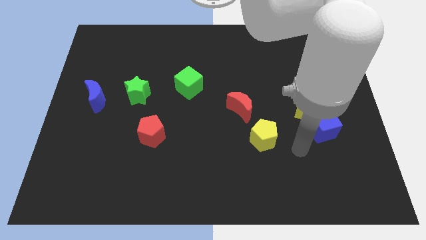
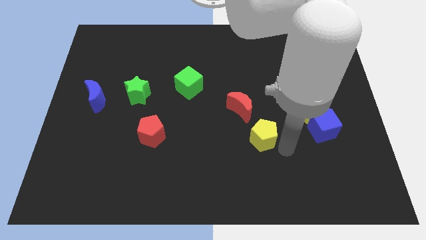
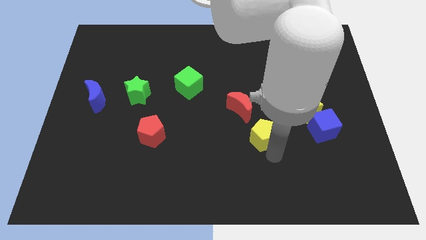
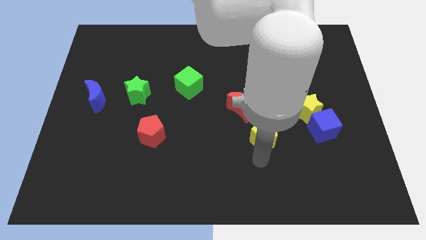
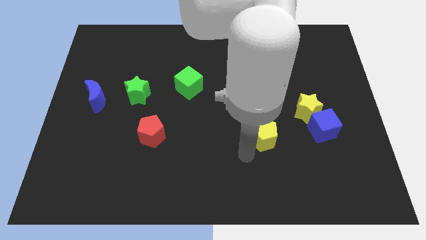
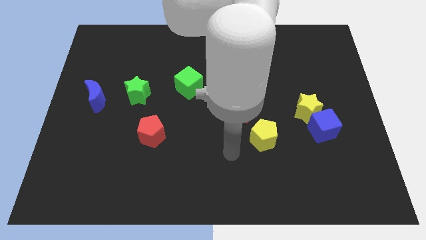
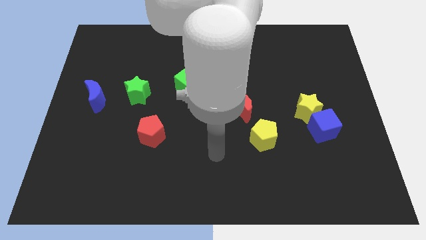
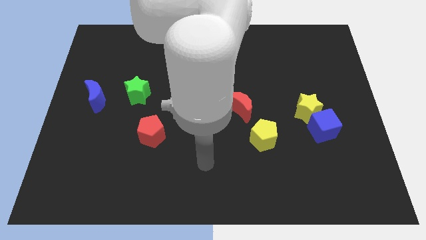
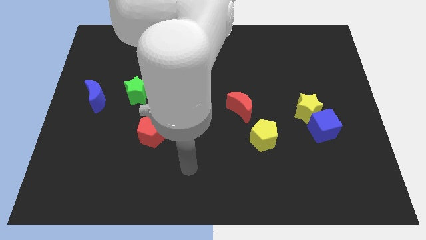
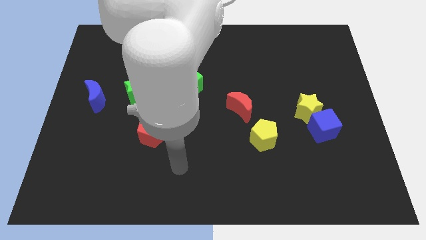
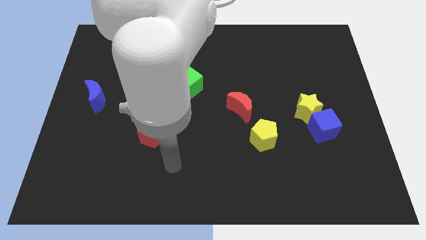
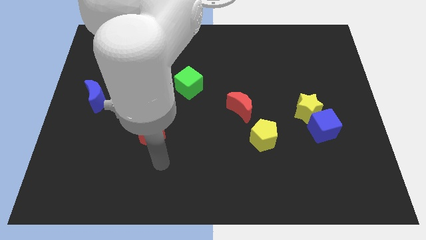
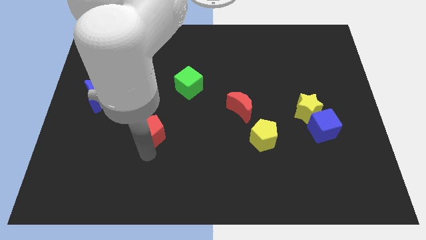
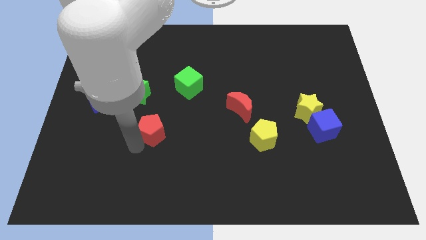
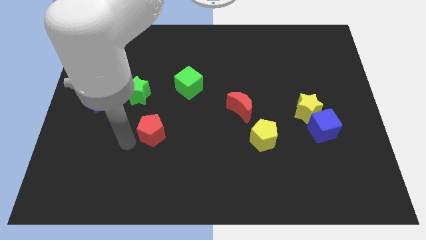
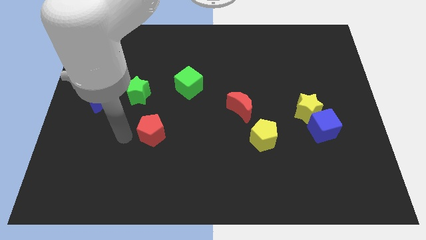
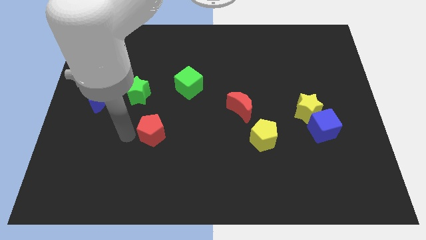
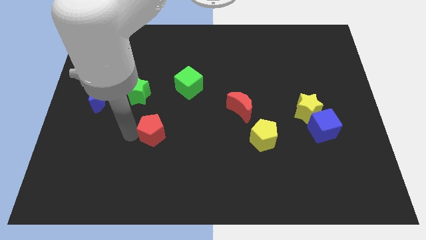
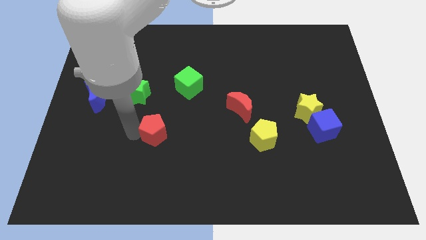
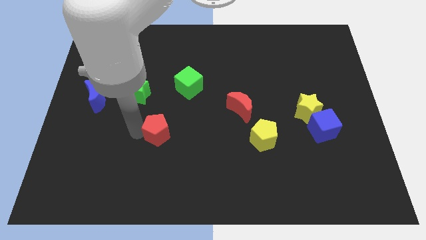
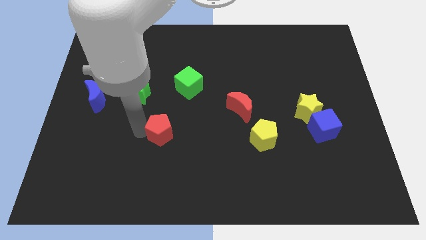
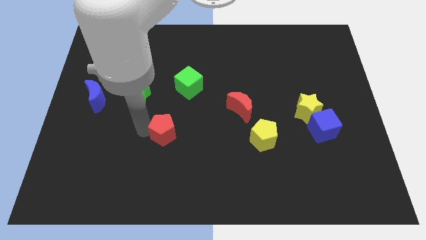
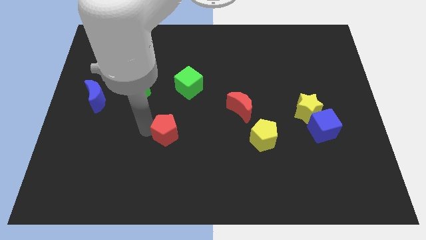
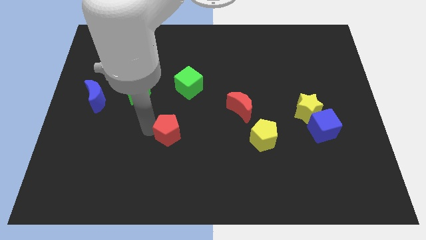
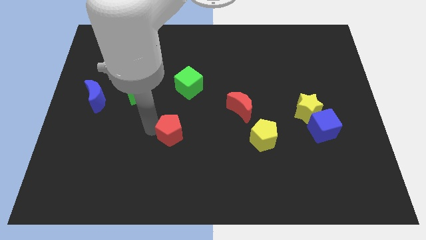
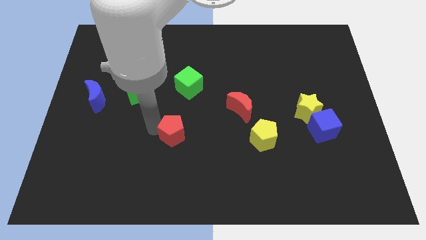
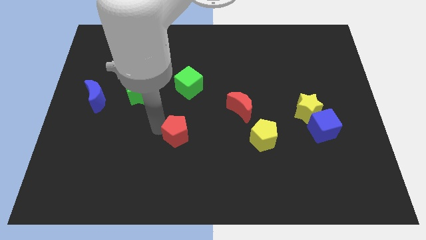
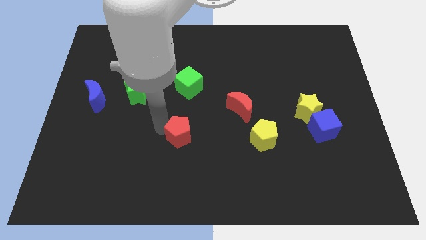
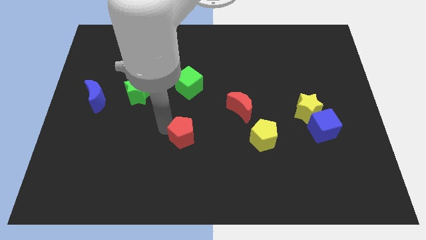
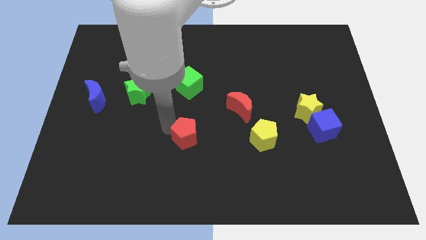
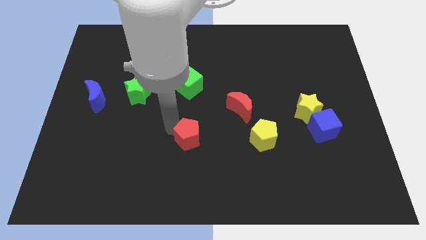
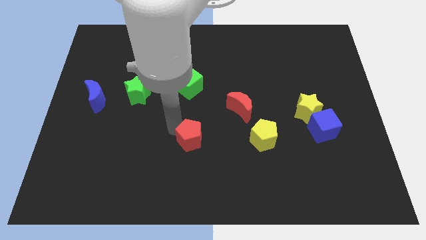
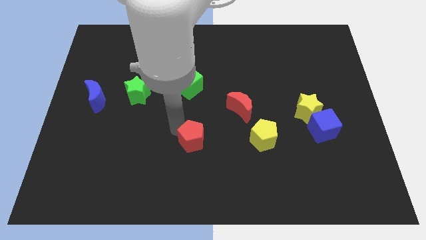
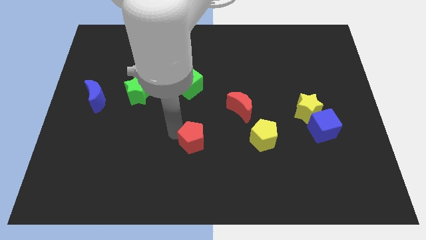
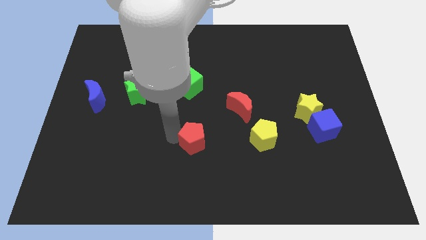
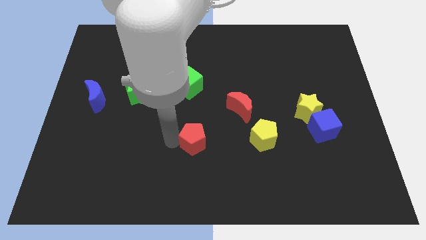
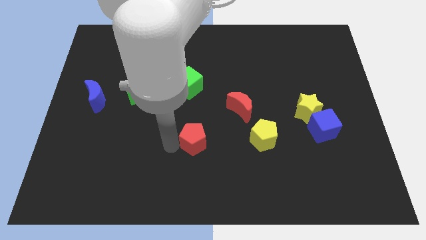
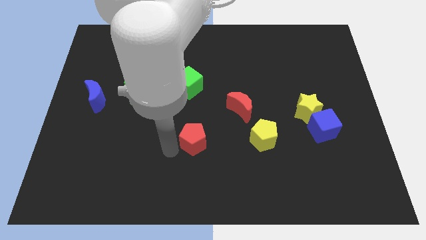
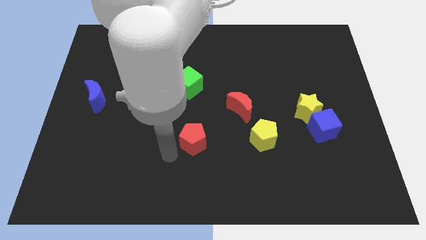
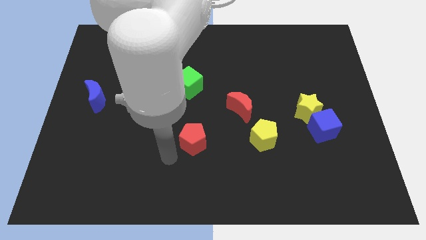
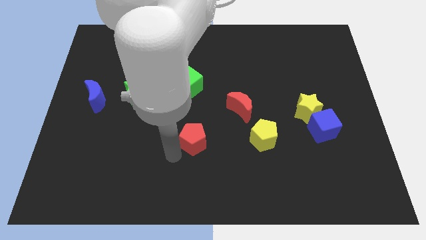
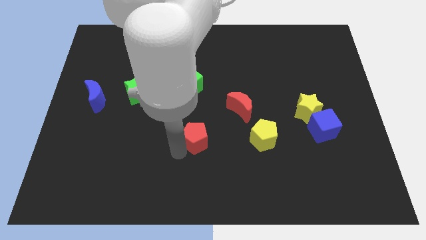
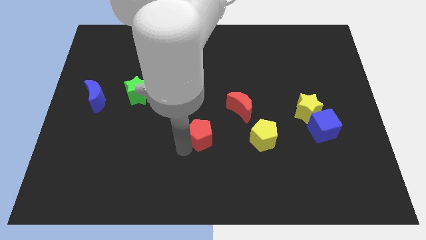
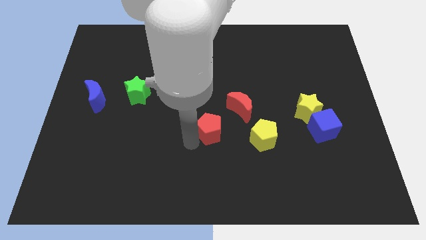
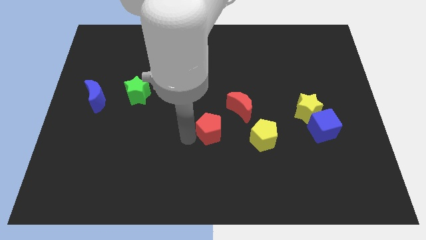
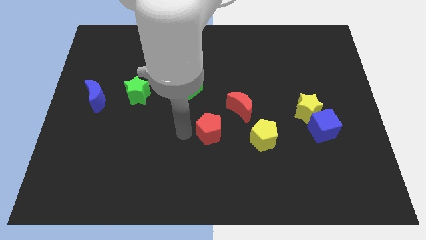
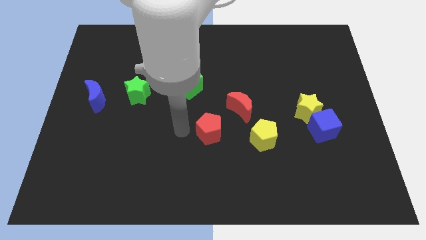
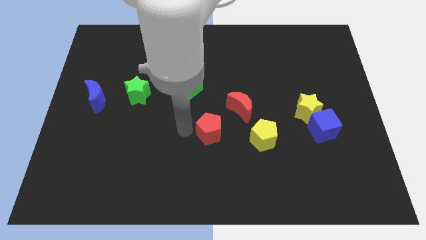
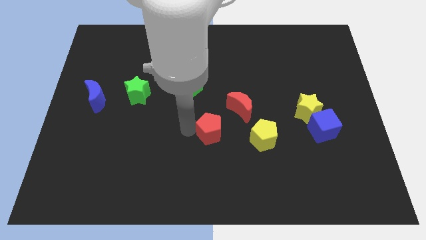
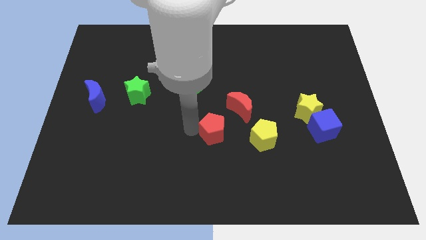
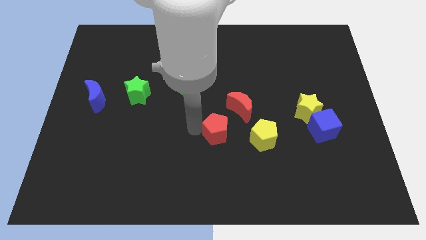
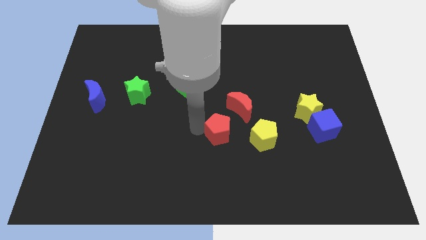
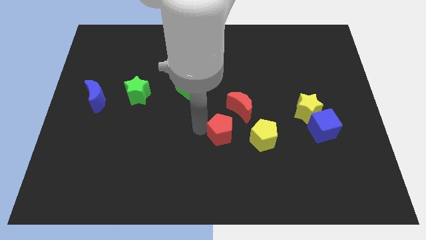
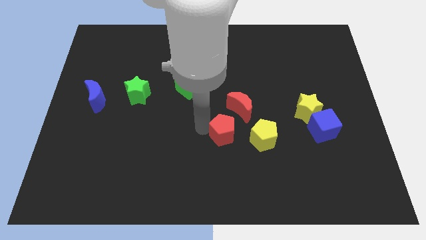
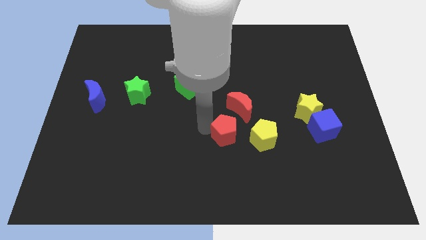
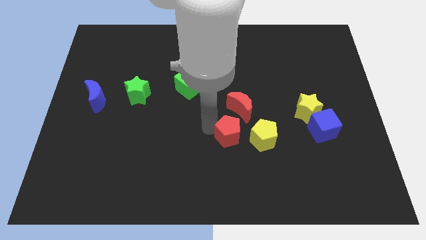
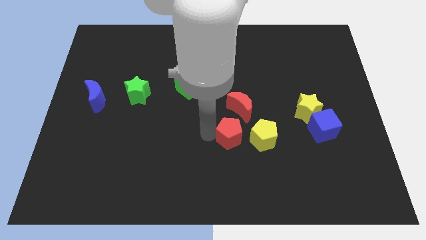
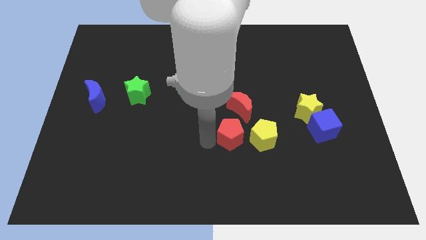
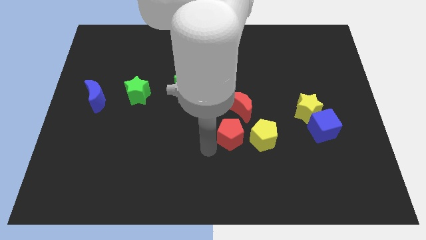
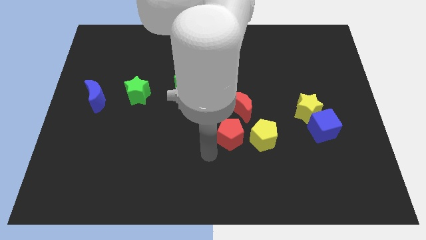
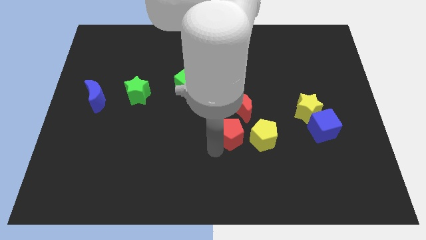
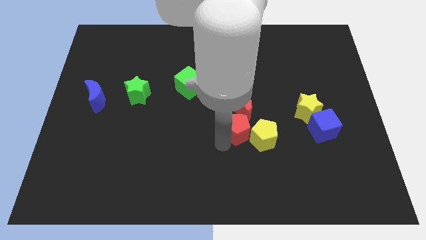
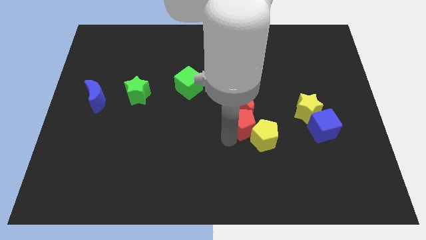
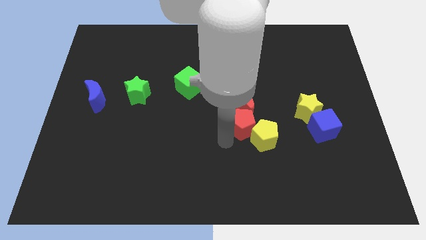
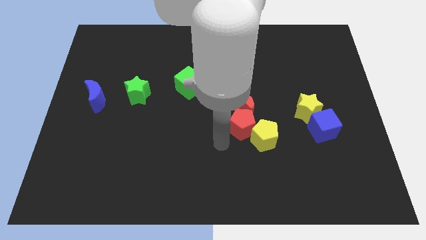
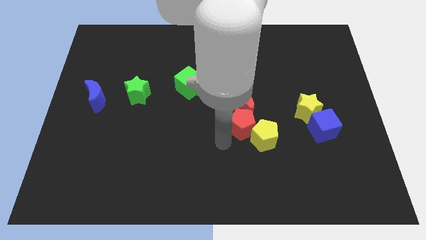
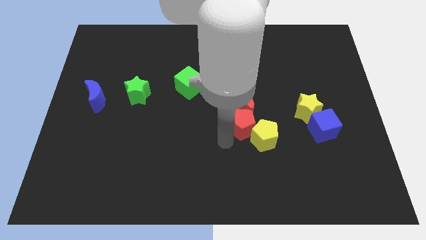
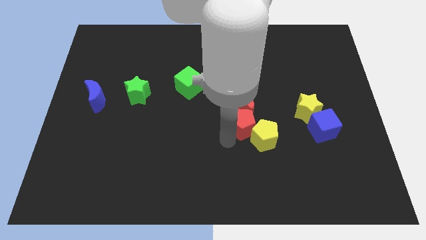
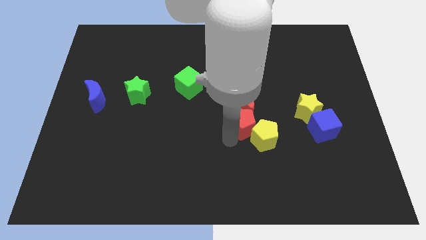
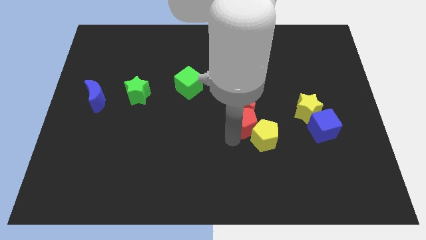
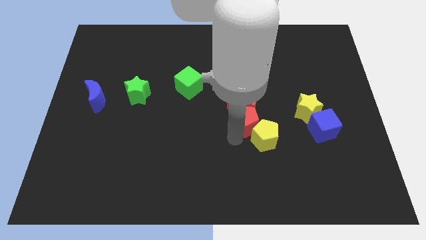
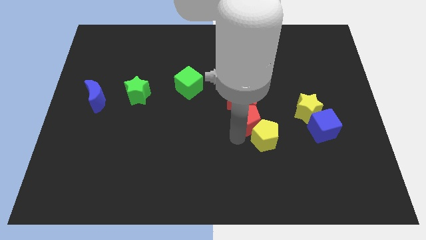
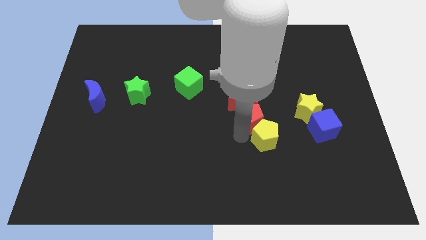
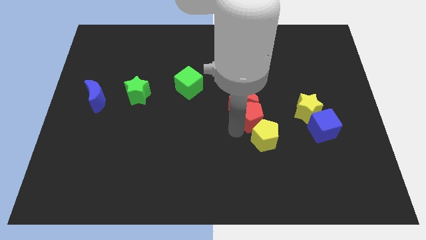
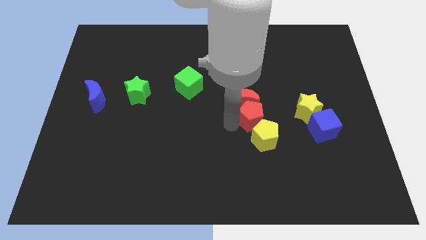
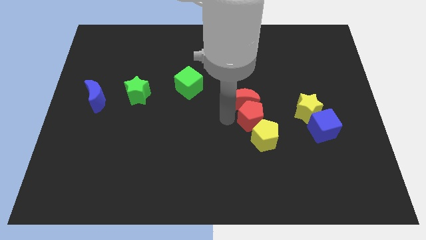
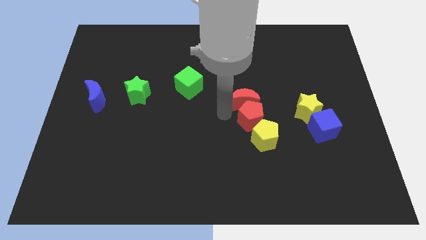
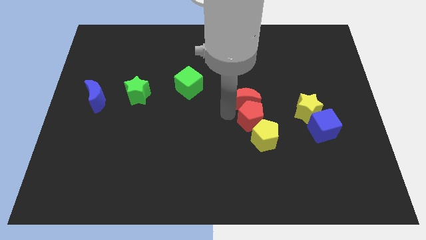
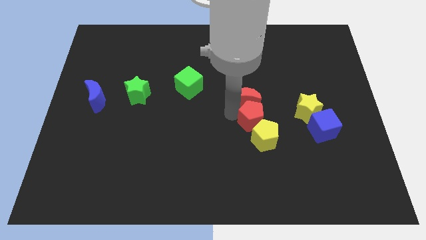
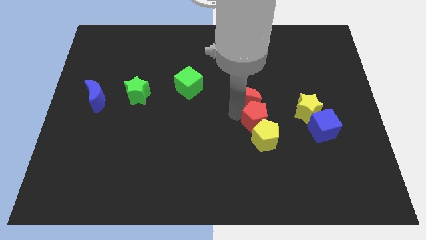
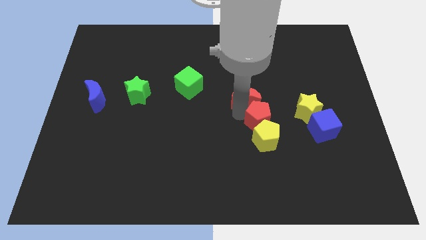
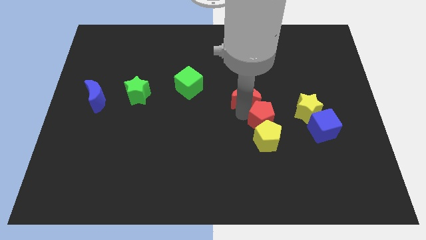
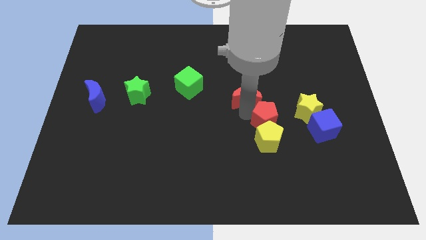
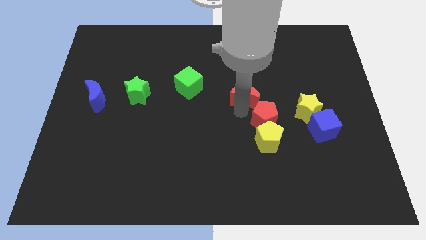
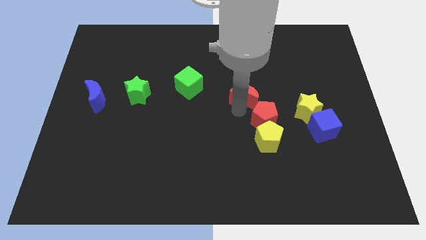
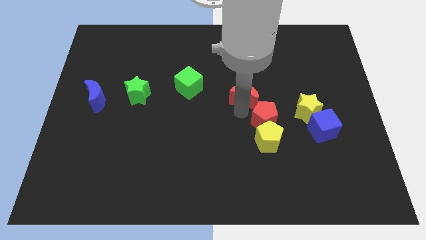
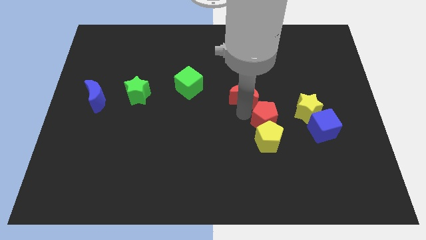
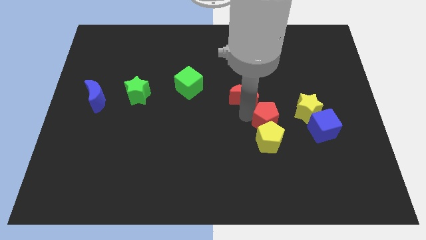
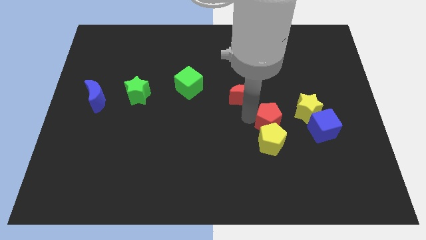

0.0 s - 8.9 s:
put the red pentagon diagonally down and to the left of the yellow star
